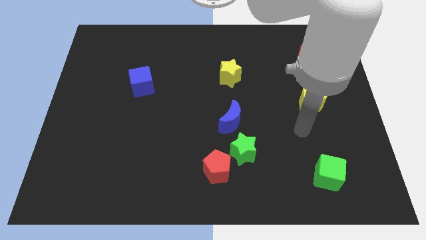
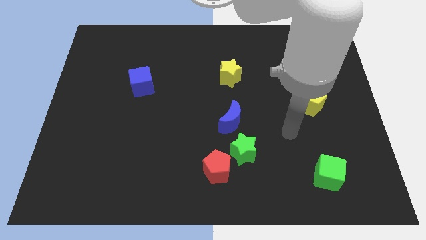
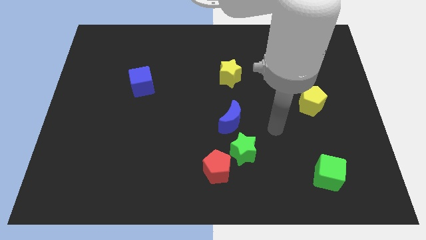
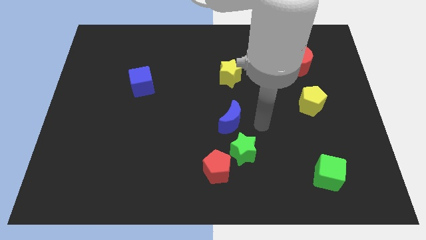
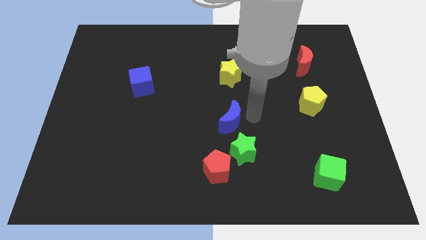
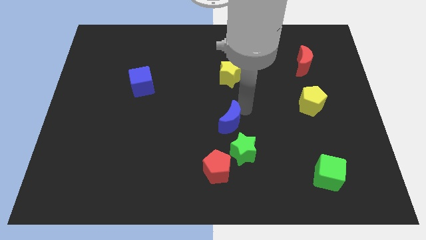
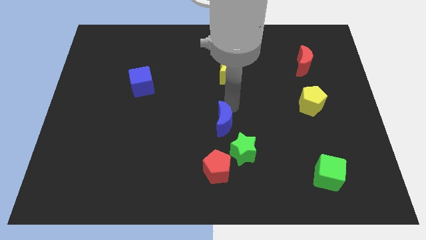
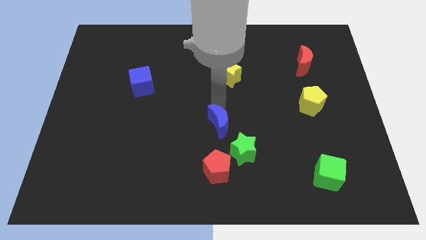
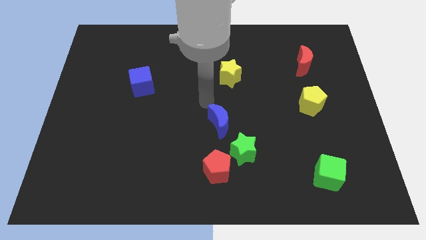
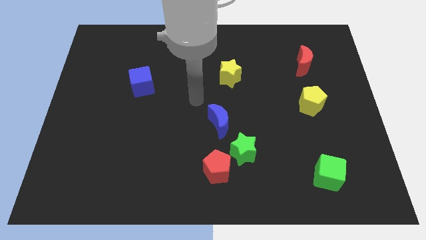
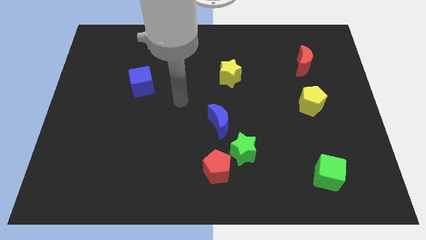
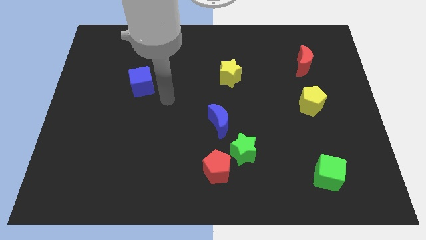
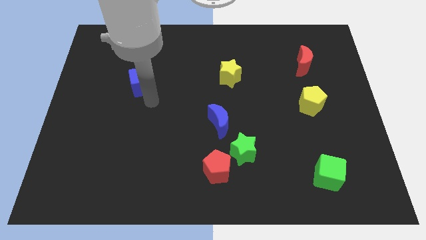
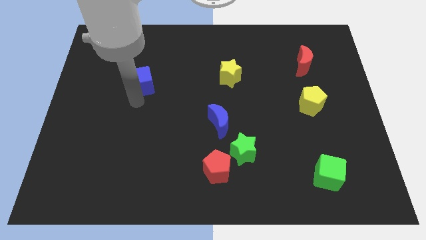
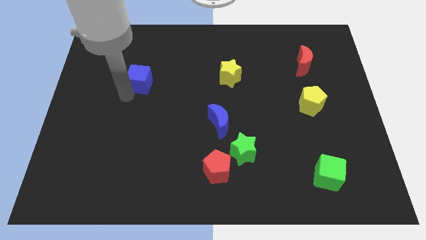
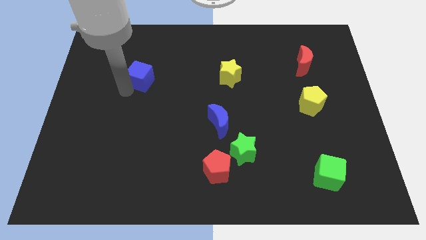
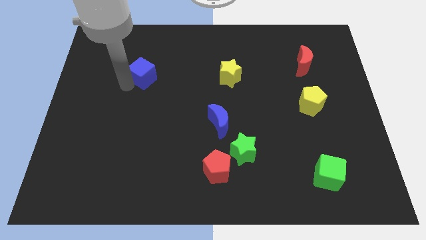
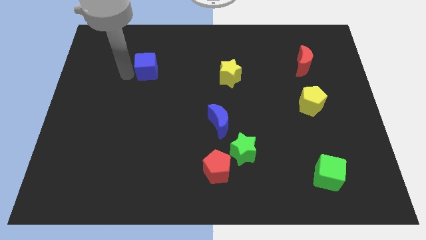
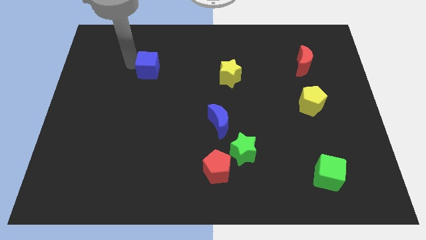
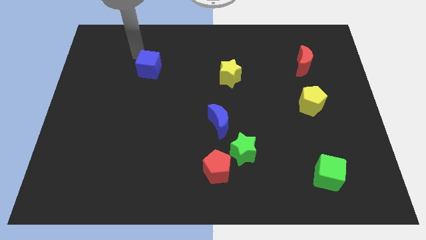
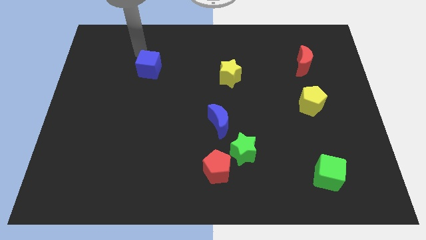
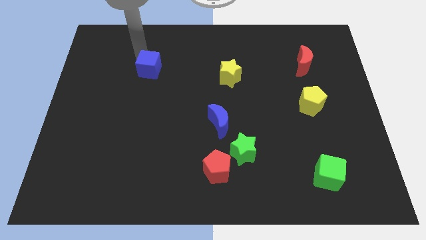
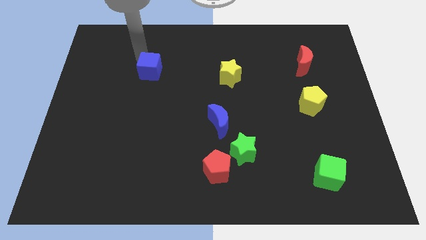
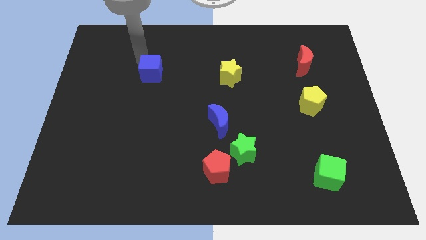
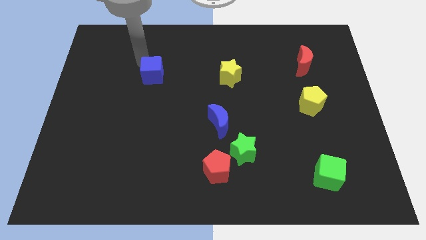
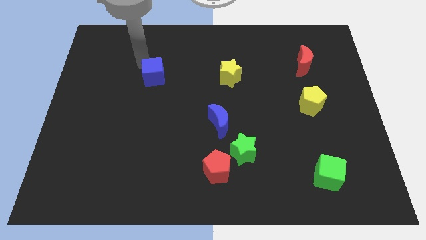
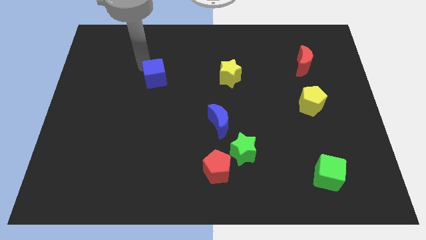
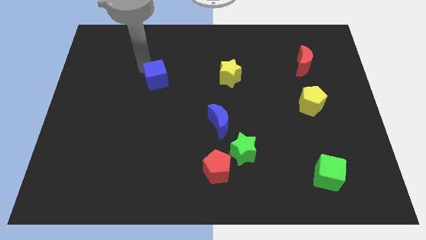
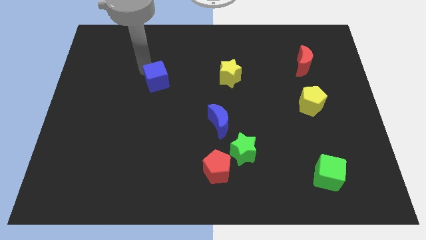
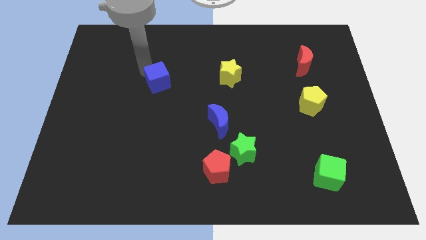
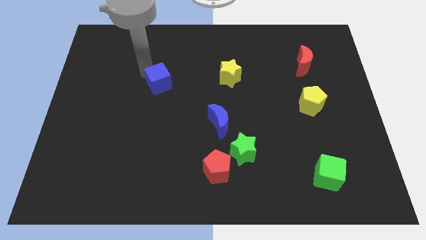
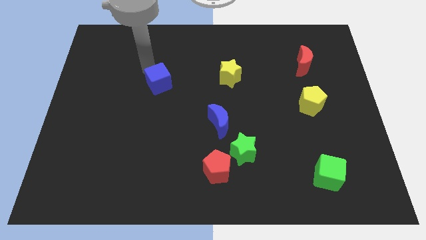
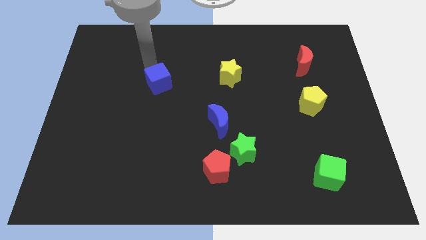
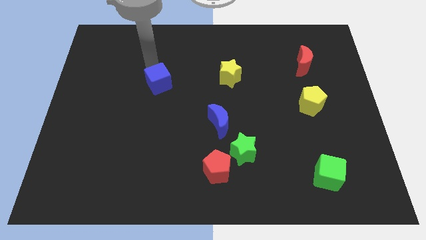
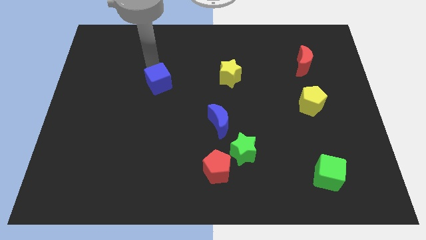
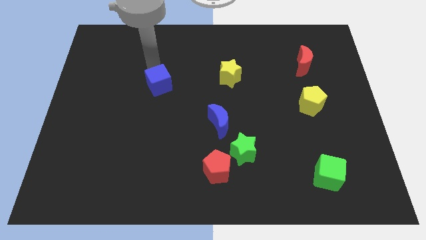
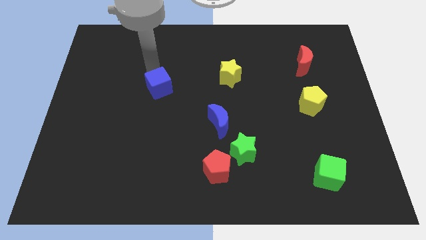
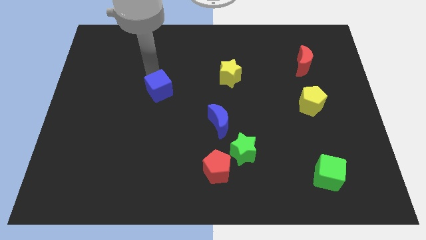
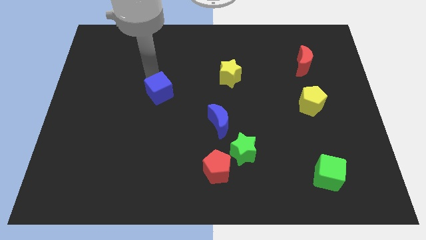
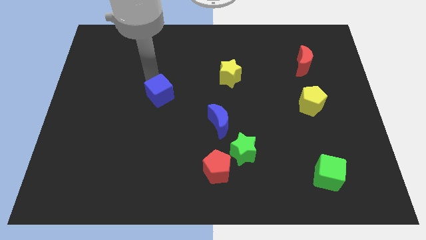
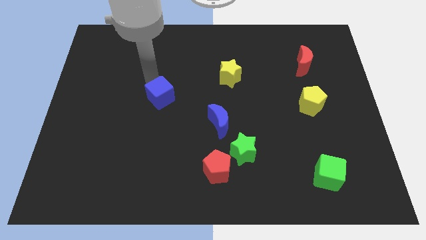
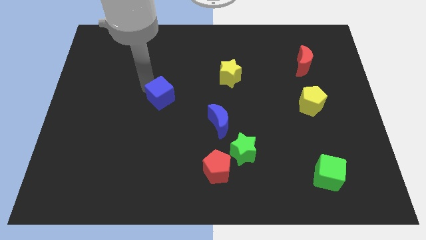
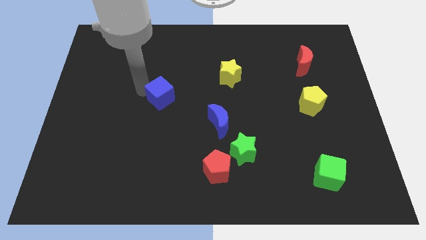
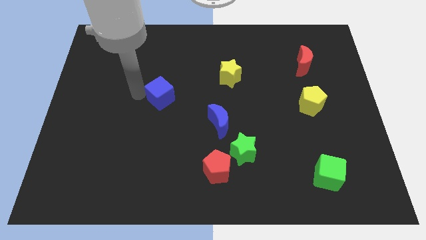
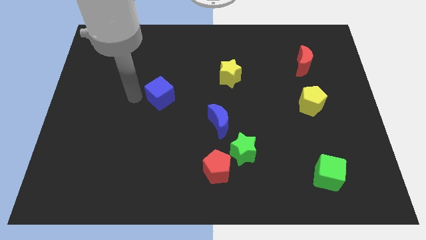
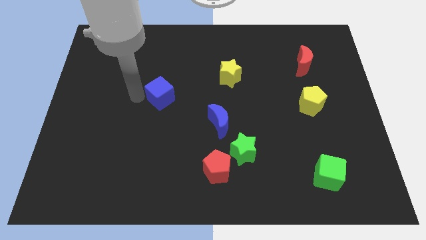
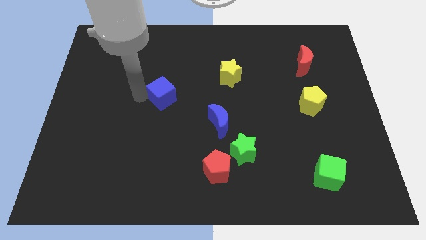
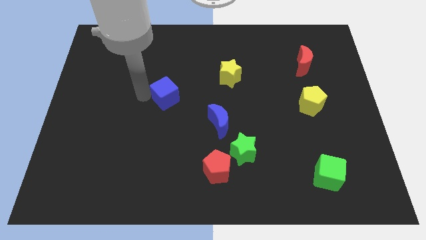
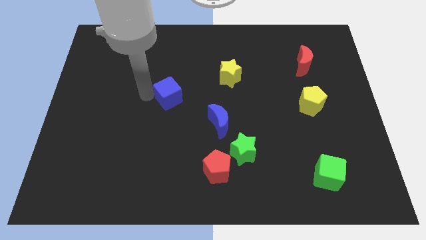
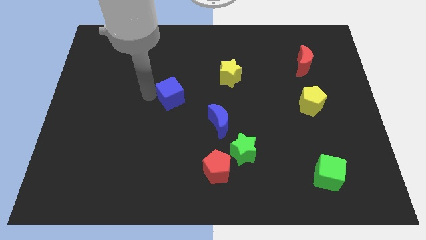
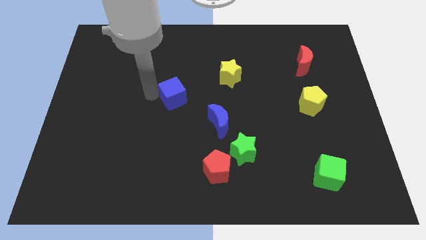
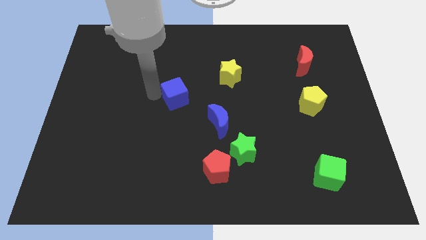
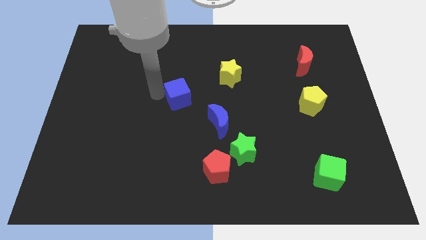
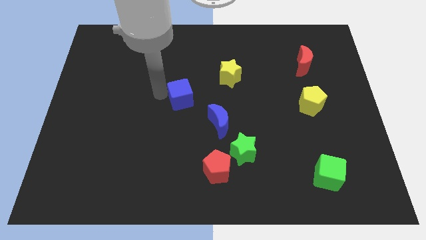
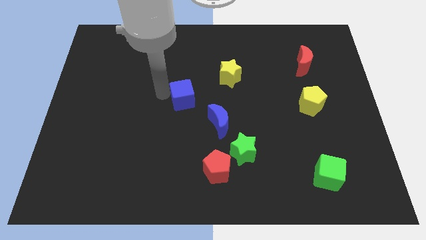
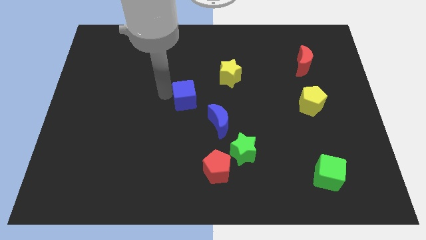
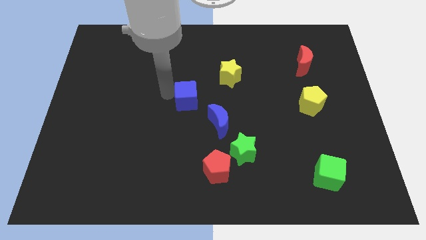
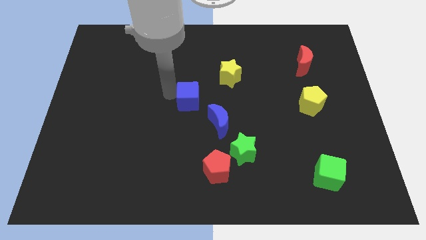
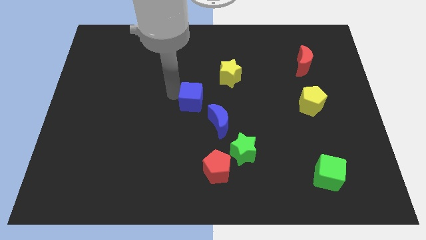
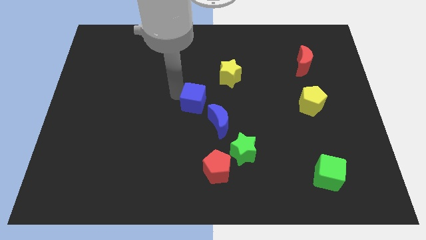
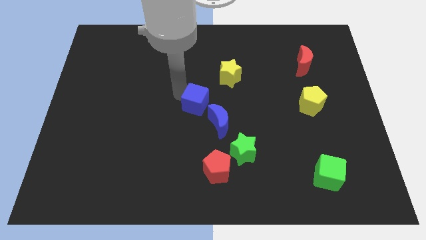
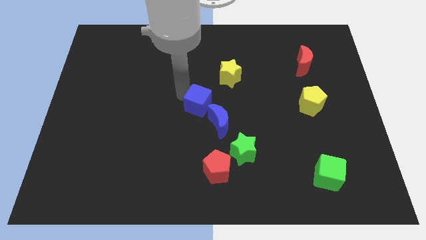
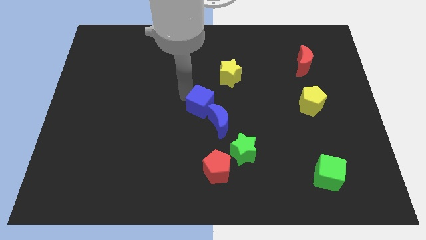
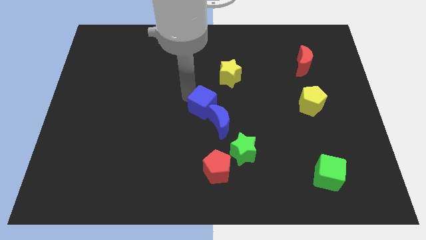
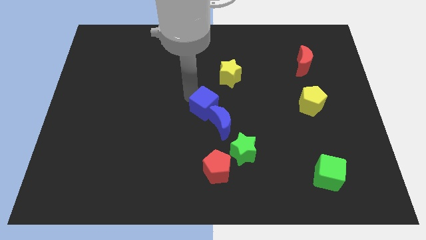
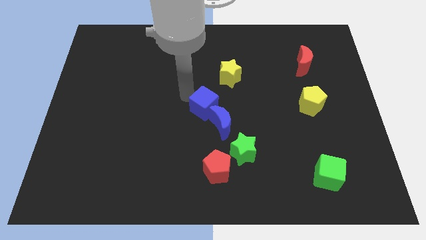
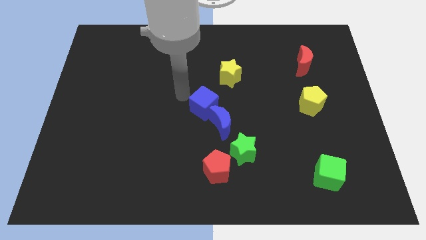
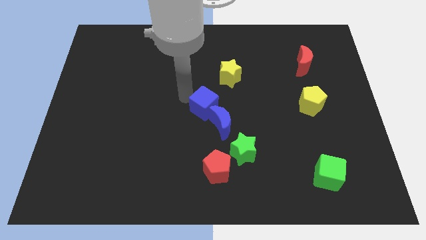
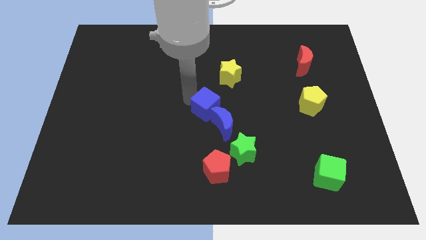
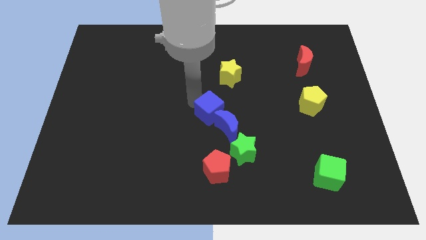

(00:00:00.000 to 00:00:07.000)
push the blue cube to the top of the red pentagon
